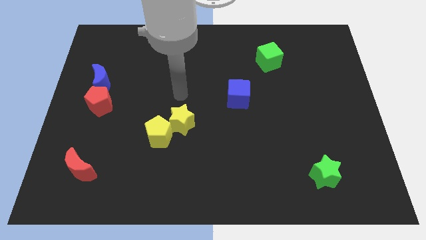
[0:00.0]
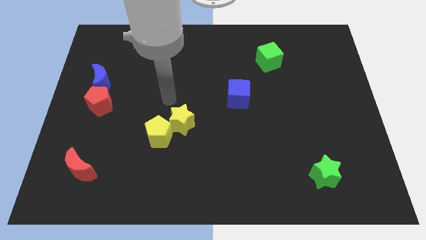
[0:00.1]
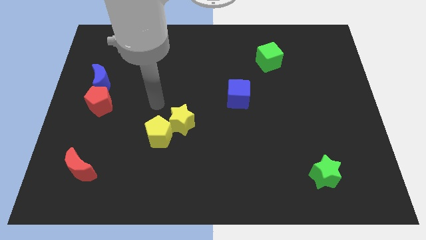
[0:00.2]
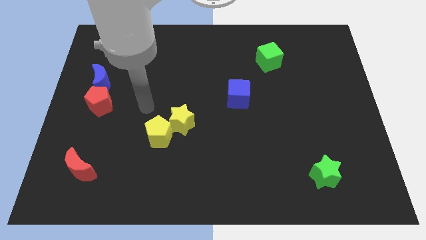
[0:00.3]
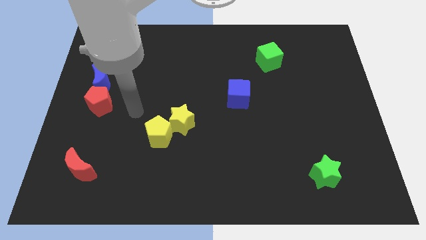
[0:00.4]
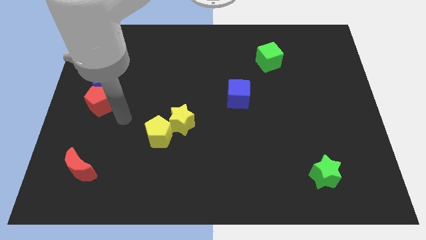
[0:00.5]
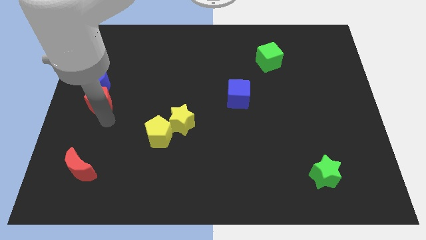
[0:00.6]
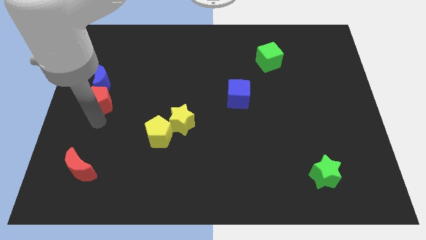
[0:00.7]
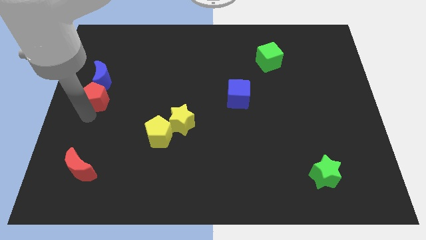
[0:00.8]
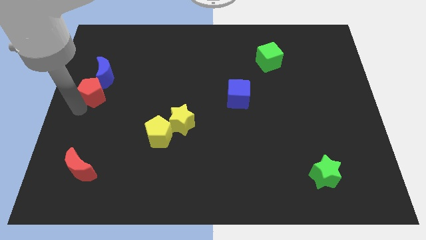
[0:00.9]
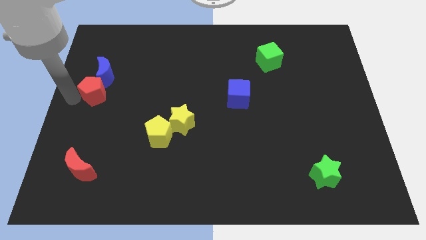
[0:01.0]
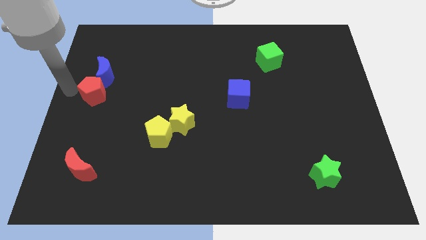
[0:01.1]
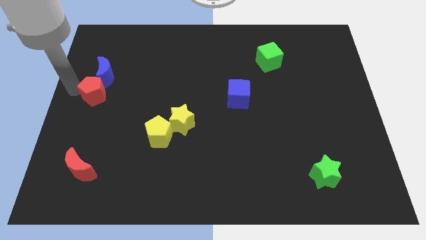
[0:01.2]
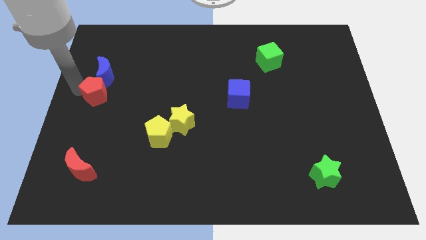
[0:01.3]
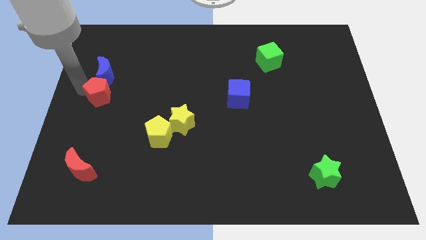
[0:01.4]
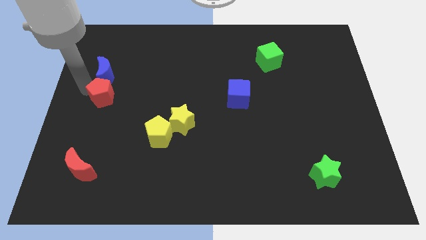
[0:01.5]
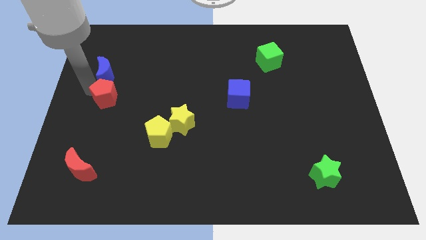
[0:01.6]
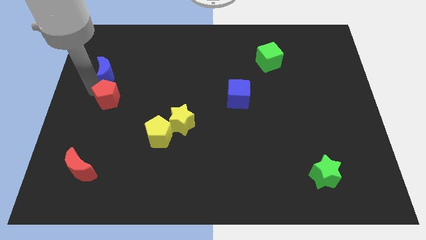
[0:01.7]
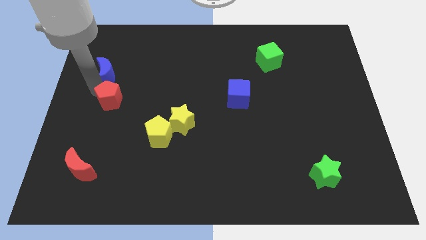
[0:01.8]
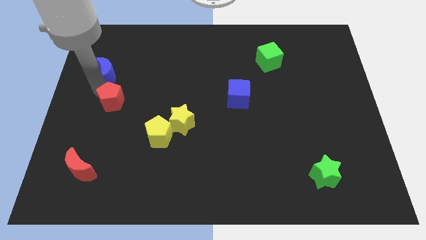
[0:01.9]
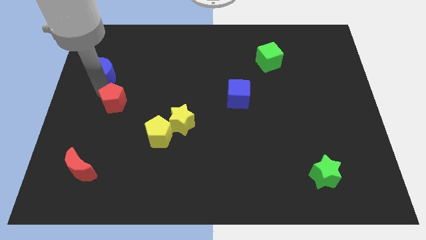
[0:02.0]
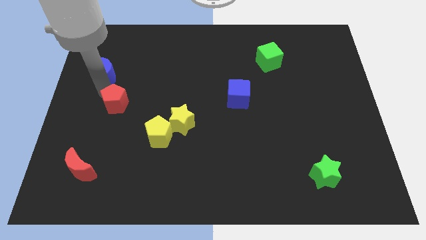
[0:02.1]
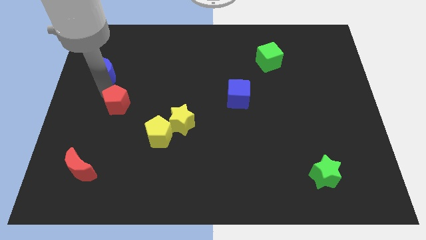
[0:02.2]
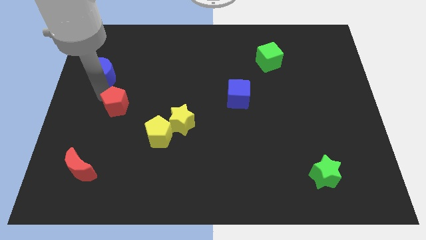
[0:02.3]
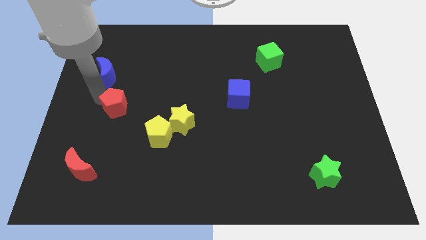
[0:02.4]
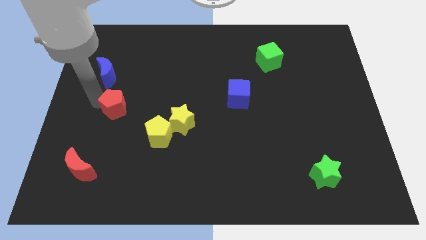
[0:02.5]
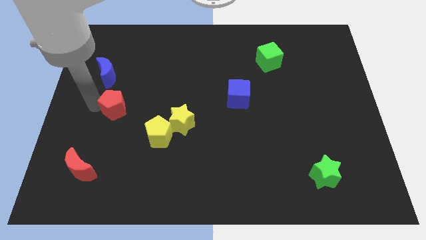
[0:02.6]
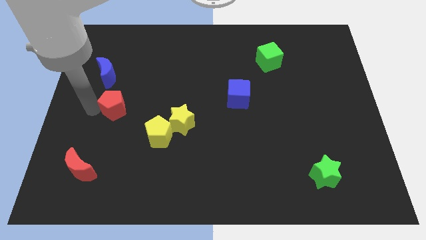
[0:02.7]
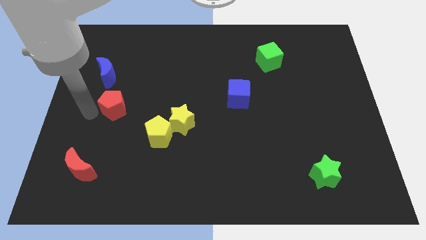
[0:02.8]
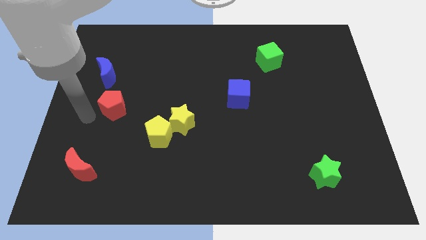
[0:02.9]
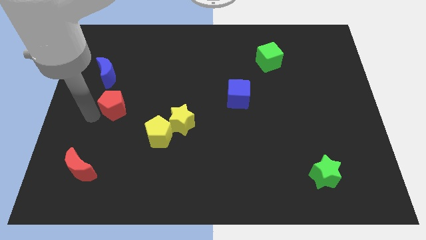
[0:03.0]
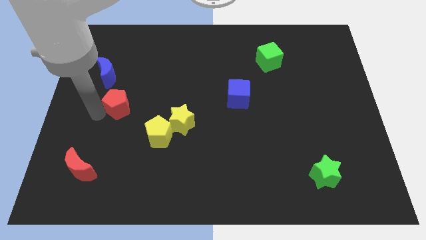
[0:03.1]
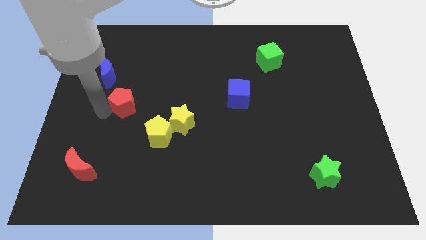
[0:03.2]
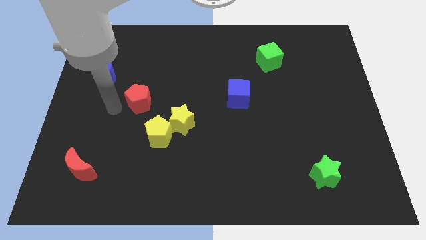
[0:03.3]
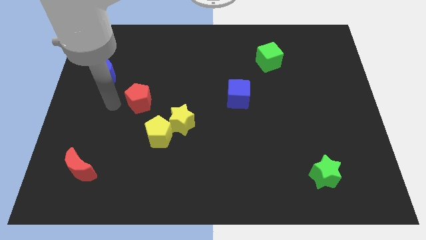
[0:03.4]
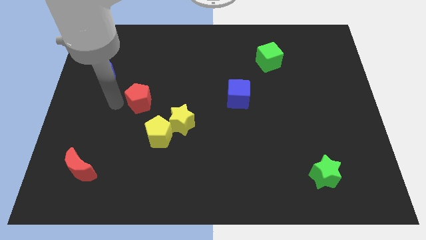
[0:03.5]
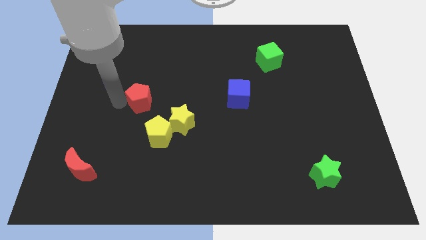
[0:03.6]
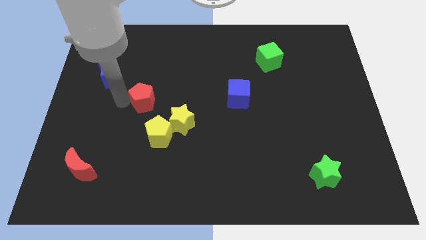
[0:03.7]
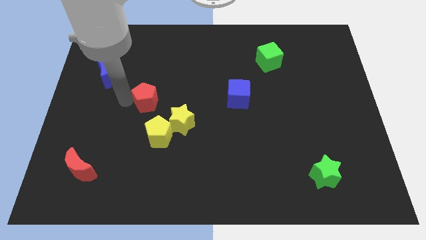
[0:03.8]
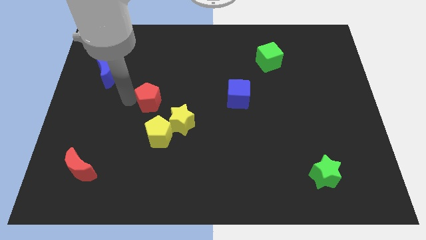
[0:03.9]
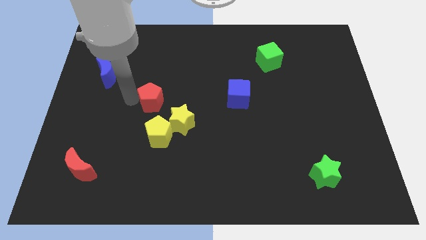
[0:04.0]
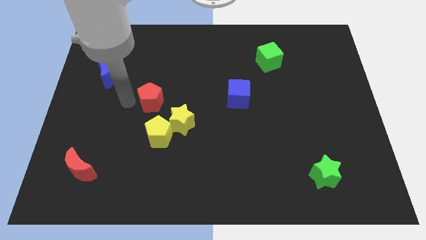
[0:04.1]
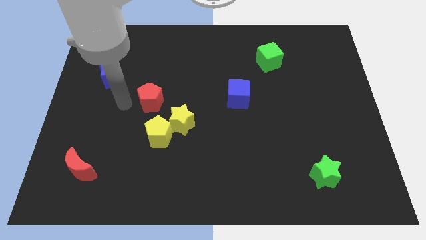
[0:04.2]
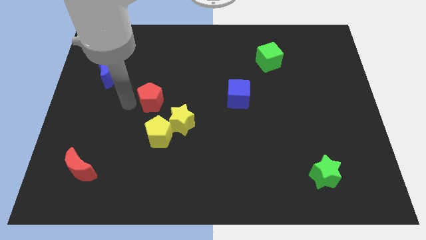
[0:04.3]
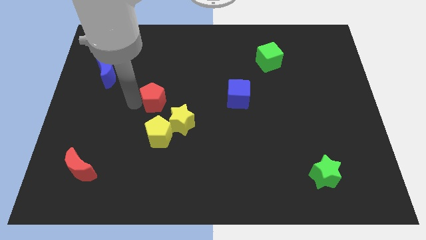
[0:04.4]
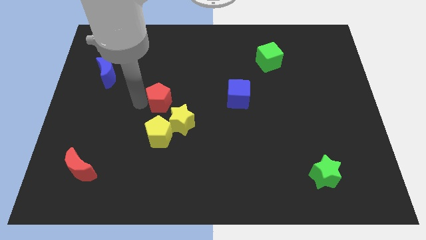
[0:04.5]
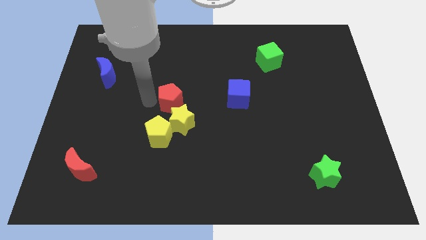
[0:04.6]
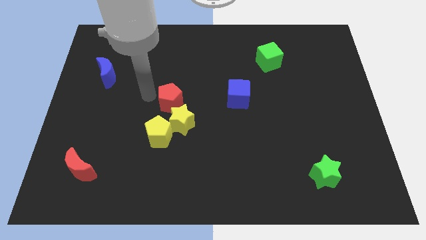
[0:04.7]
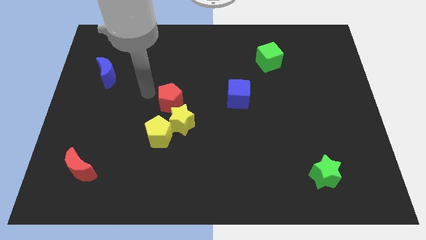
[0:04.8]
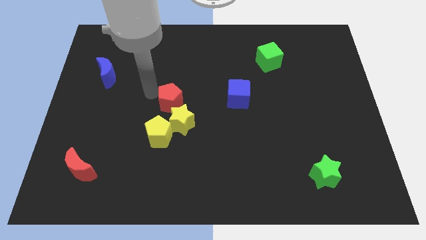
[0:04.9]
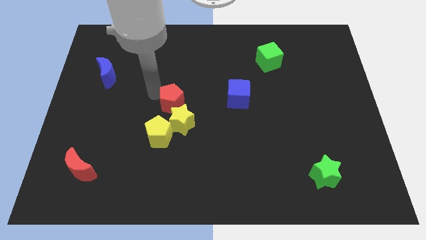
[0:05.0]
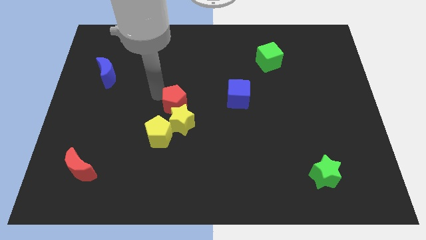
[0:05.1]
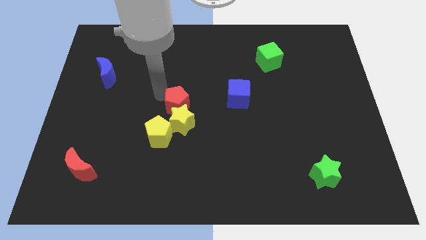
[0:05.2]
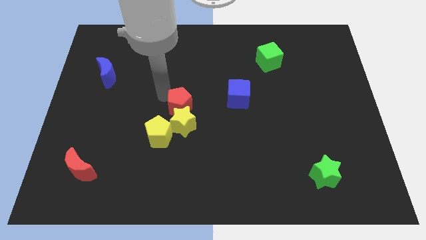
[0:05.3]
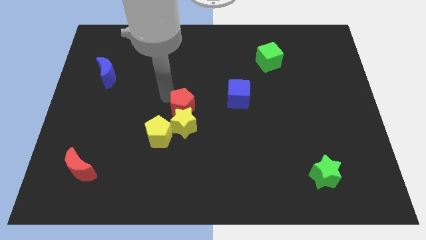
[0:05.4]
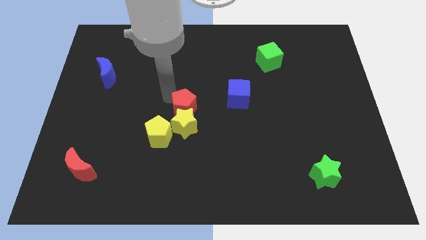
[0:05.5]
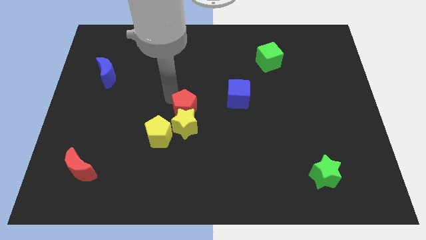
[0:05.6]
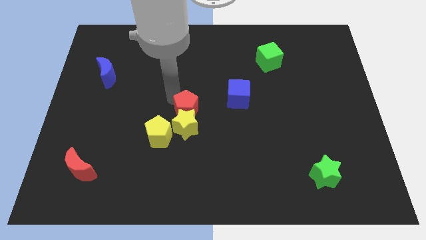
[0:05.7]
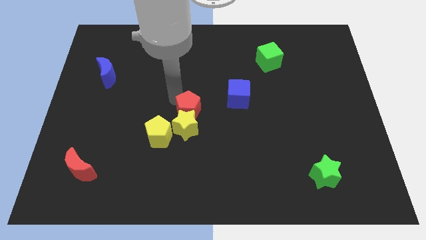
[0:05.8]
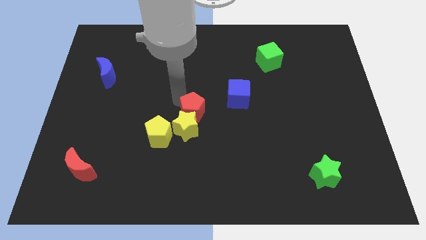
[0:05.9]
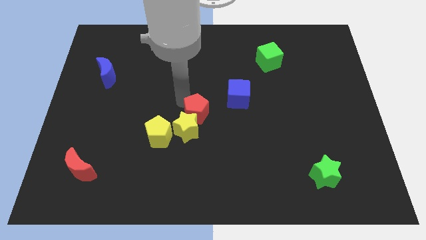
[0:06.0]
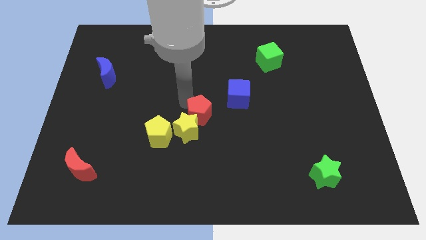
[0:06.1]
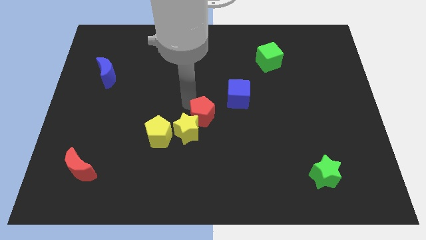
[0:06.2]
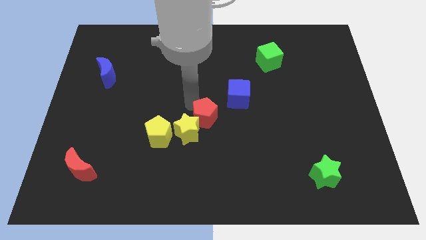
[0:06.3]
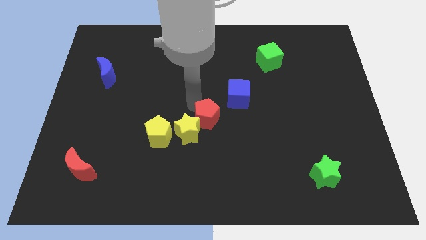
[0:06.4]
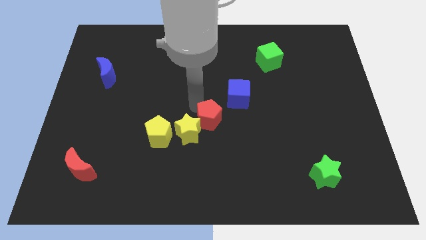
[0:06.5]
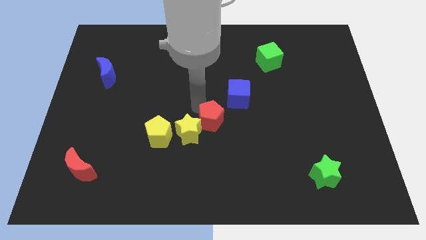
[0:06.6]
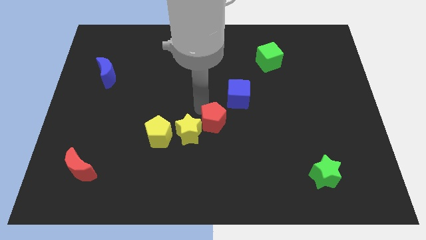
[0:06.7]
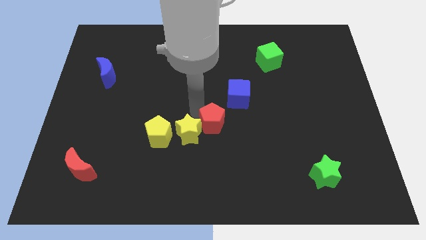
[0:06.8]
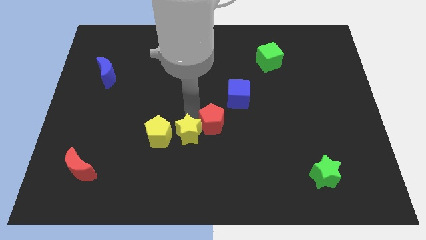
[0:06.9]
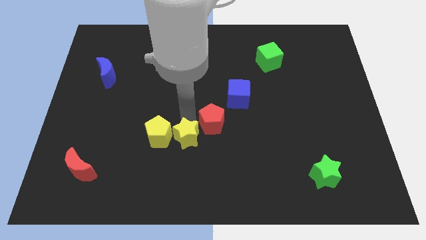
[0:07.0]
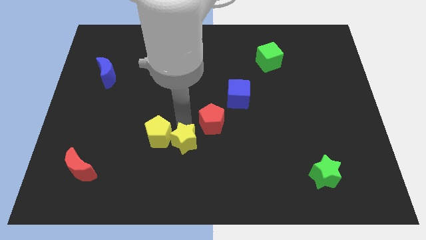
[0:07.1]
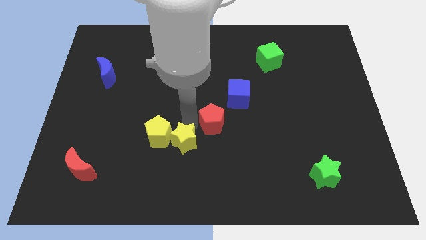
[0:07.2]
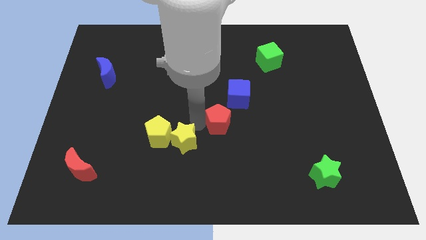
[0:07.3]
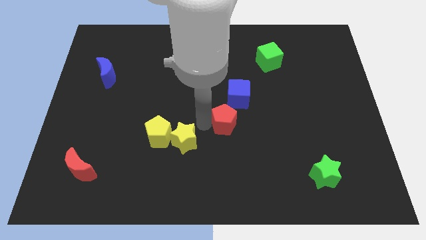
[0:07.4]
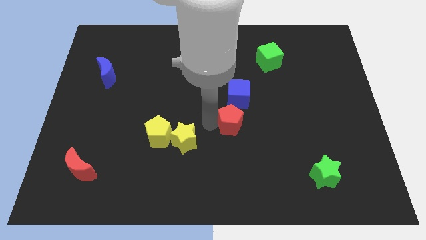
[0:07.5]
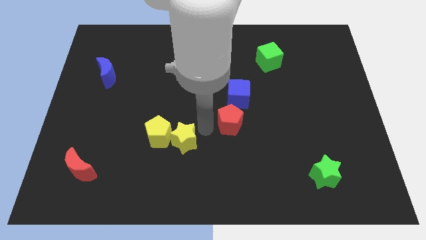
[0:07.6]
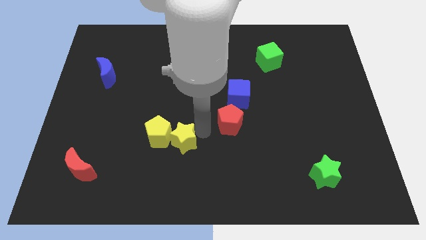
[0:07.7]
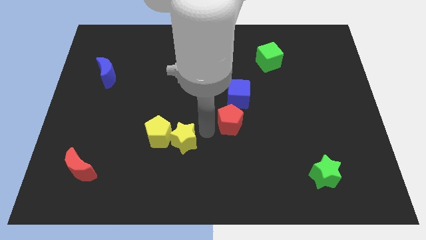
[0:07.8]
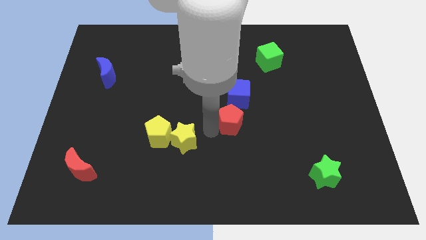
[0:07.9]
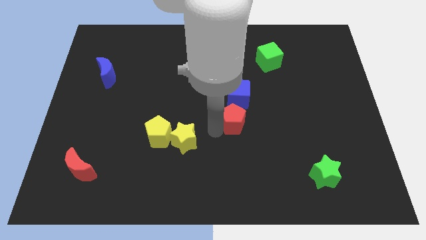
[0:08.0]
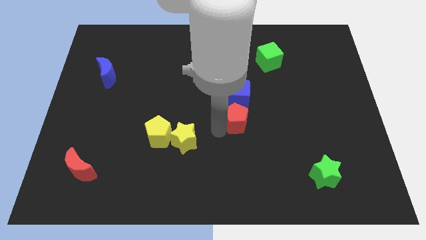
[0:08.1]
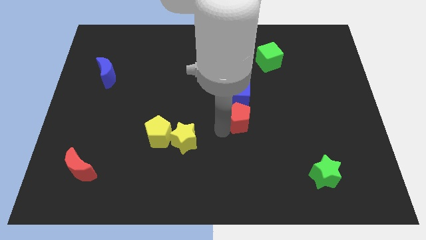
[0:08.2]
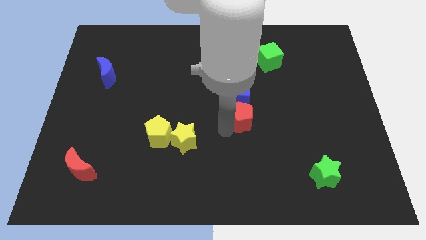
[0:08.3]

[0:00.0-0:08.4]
push the red pentagon diagonally down and to the right of the blue cube
